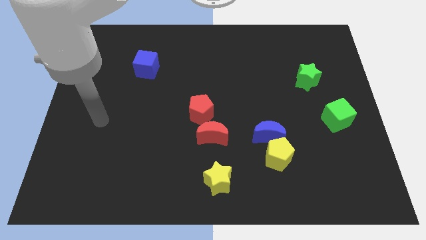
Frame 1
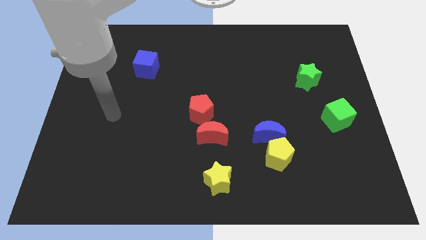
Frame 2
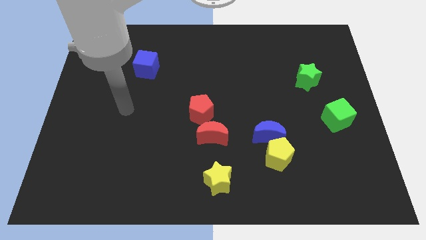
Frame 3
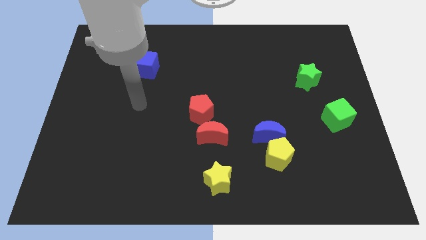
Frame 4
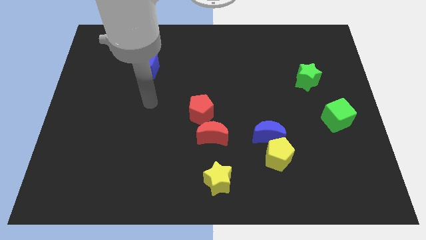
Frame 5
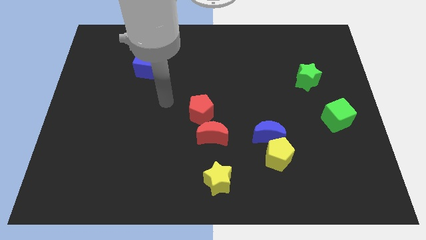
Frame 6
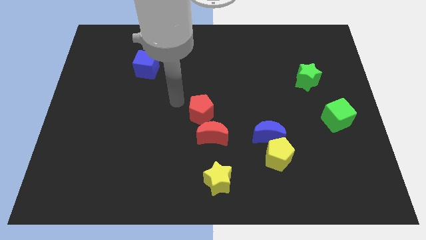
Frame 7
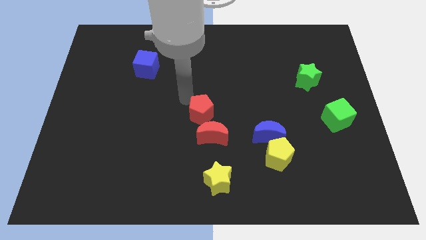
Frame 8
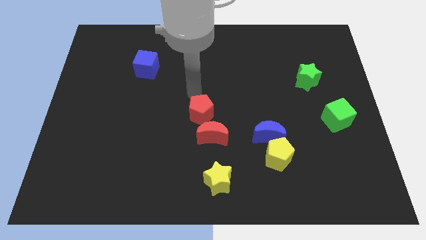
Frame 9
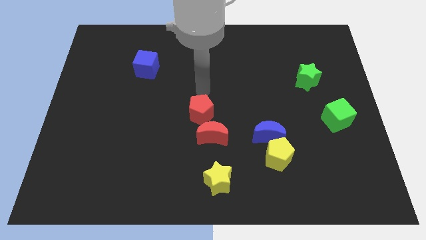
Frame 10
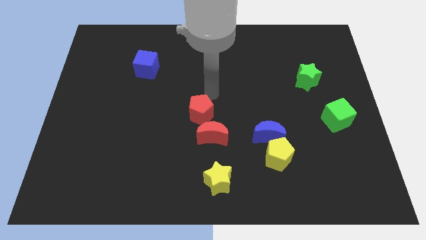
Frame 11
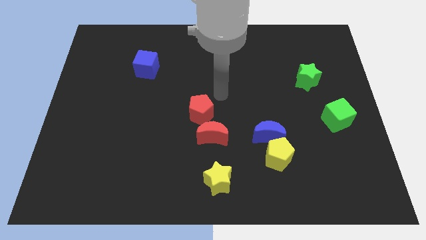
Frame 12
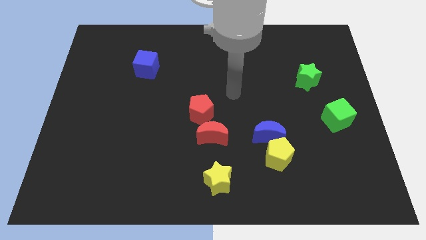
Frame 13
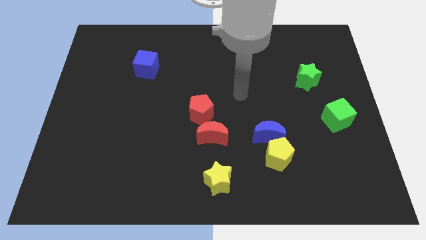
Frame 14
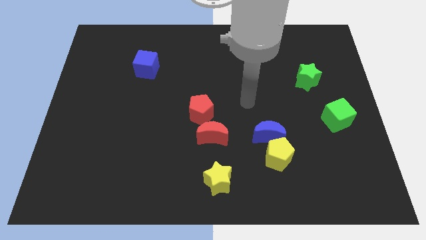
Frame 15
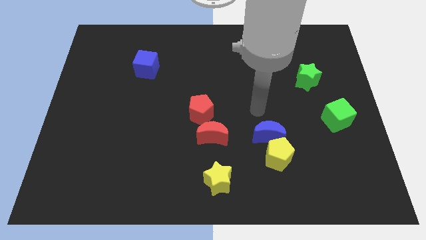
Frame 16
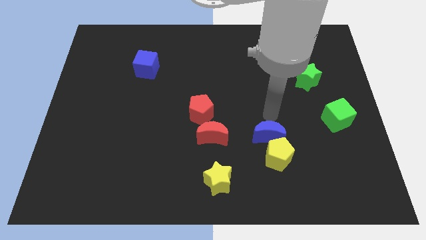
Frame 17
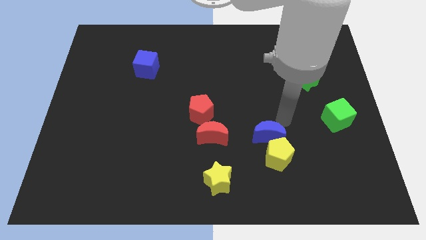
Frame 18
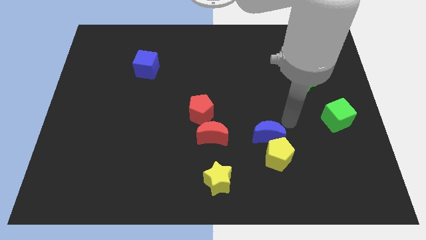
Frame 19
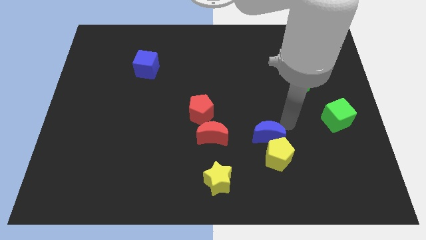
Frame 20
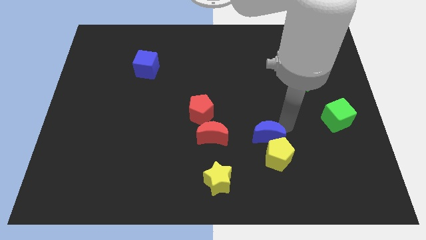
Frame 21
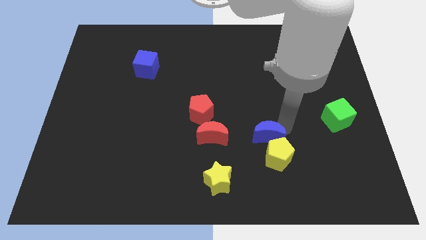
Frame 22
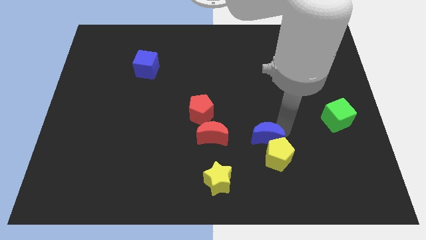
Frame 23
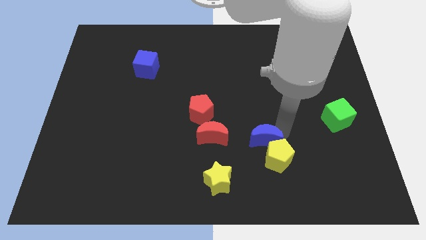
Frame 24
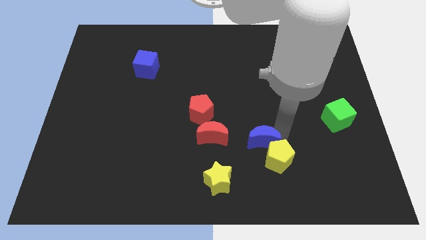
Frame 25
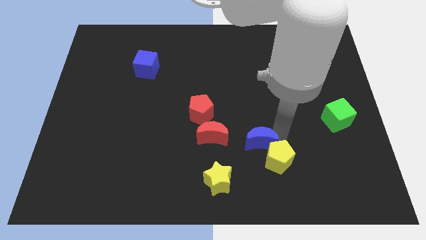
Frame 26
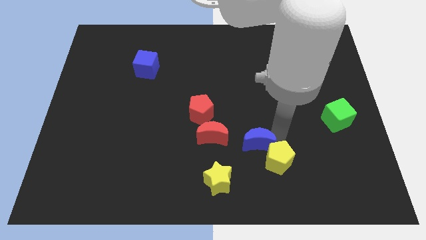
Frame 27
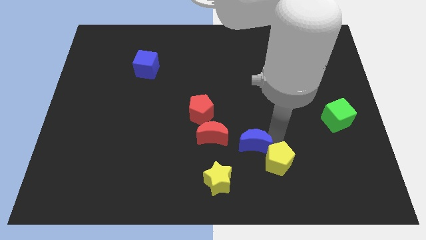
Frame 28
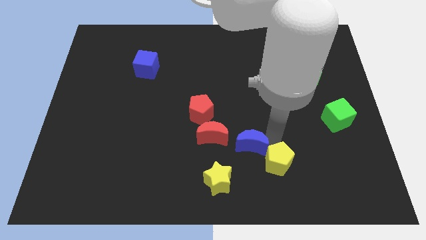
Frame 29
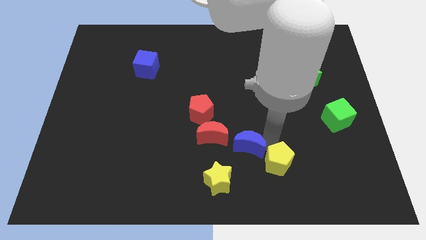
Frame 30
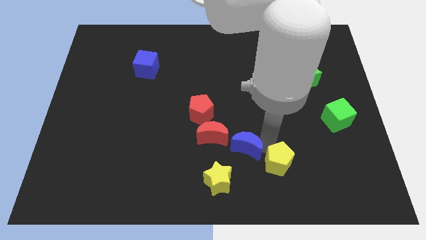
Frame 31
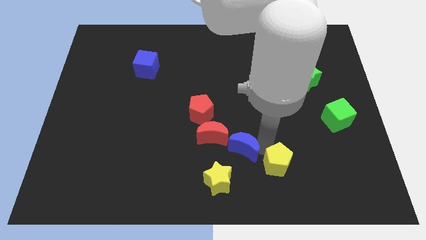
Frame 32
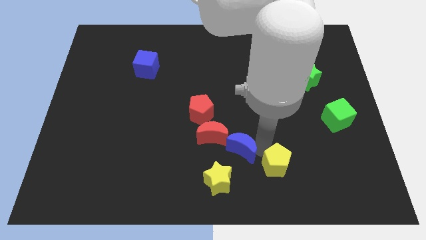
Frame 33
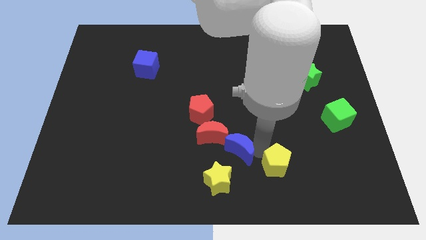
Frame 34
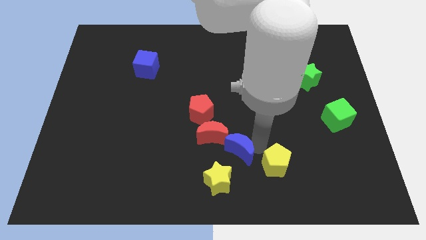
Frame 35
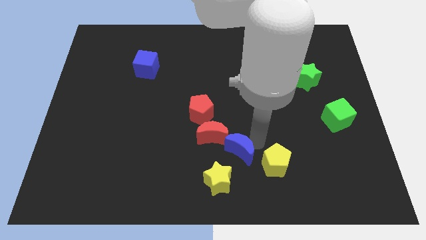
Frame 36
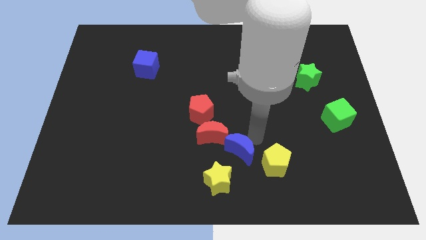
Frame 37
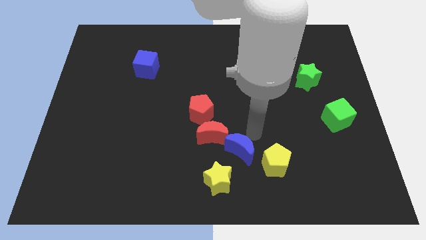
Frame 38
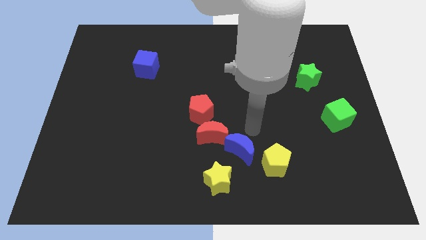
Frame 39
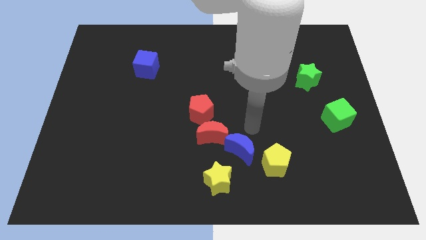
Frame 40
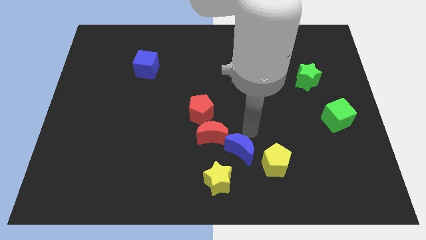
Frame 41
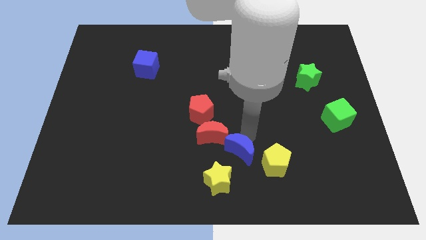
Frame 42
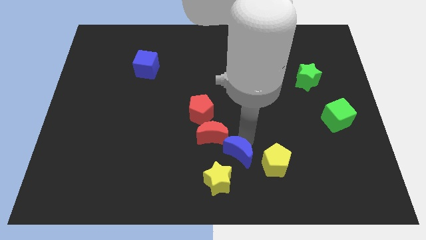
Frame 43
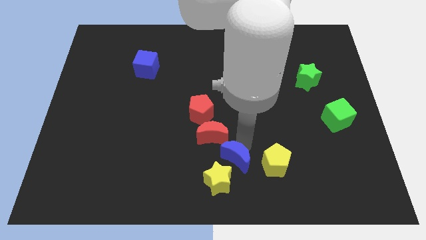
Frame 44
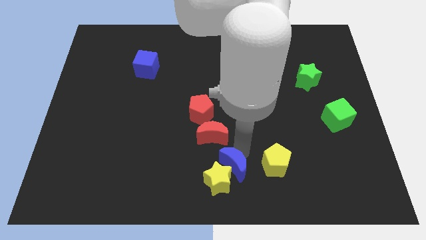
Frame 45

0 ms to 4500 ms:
push the blue moon towards the yellow star

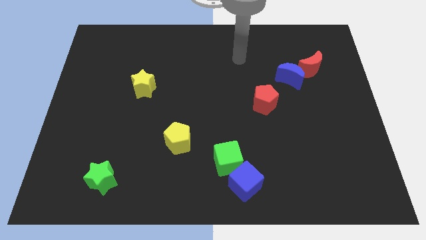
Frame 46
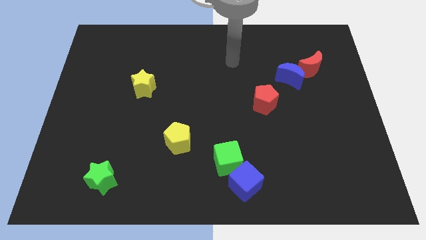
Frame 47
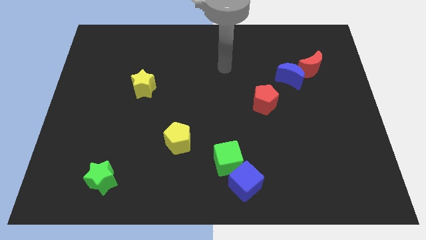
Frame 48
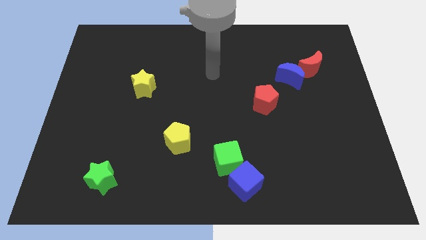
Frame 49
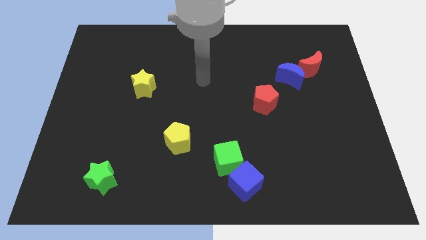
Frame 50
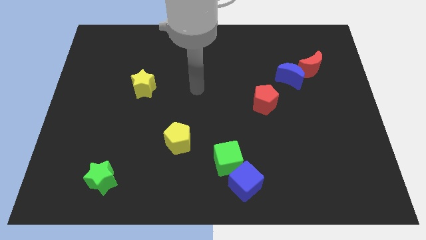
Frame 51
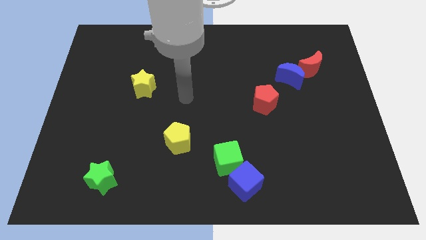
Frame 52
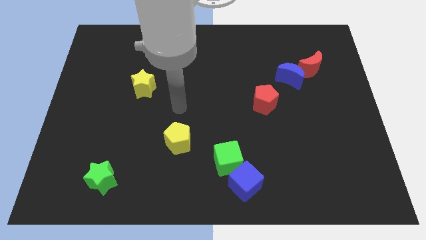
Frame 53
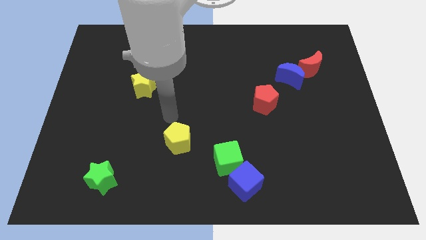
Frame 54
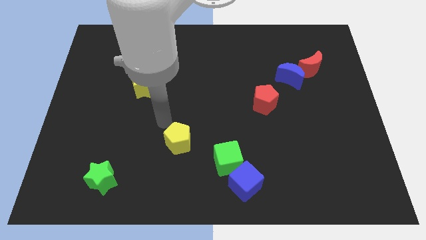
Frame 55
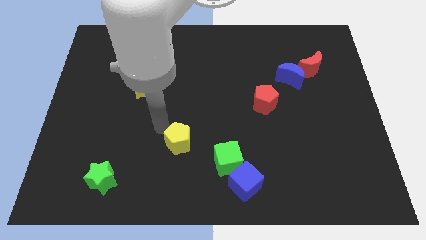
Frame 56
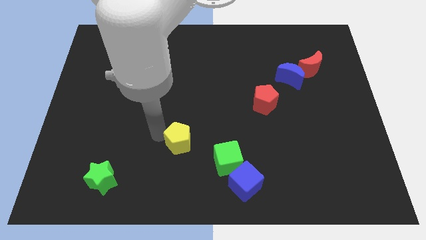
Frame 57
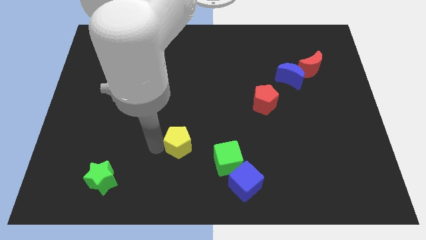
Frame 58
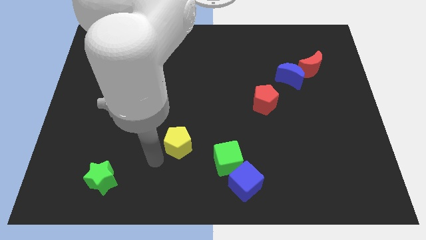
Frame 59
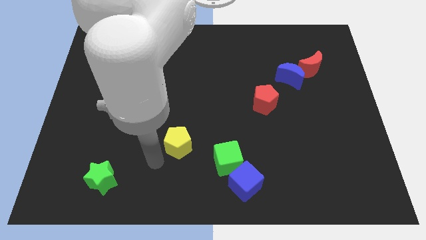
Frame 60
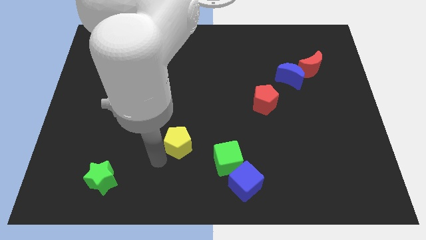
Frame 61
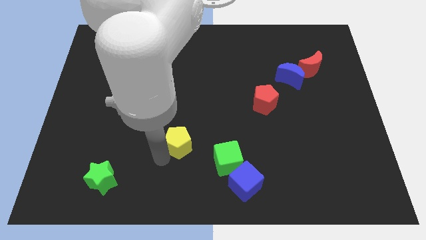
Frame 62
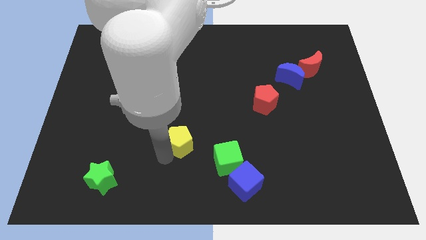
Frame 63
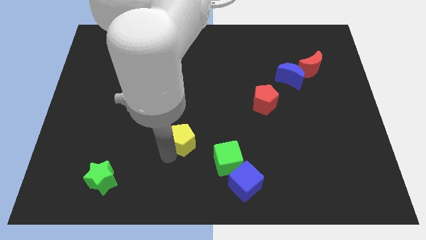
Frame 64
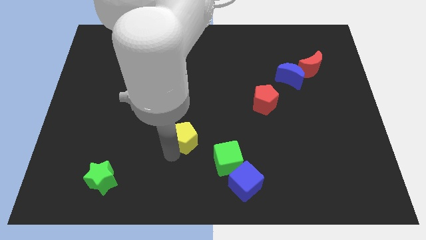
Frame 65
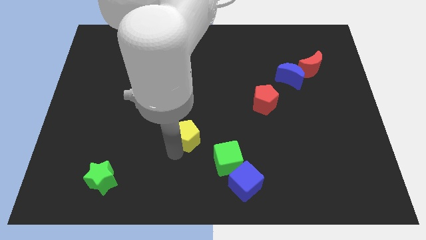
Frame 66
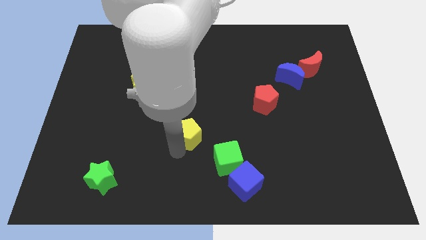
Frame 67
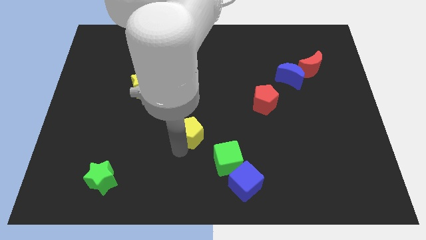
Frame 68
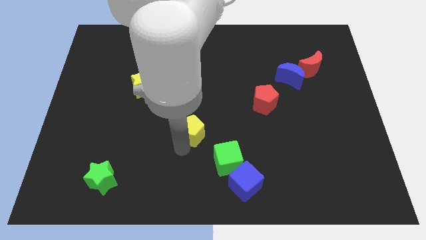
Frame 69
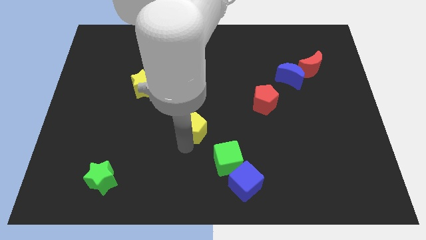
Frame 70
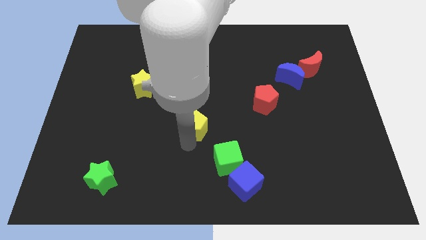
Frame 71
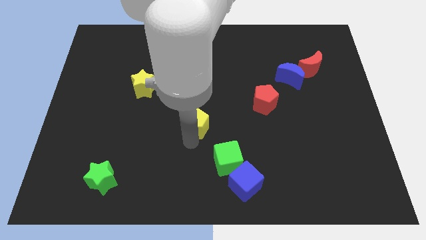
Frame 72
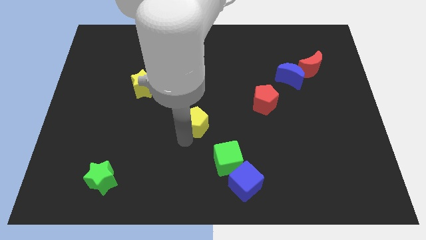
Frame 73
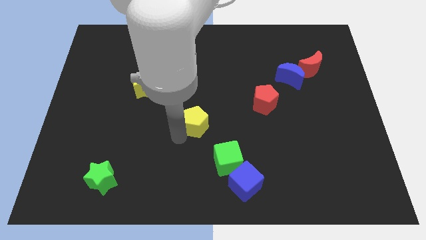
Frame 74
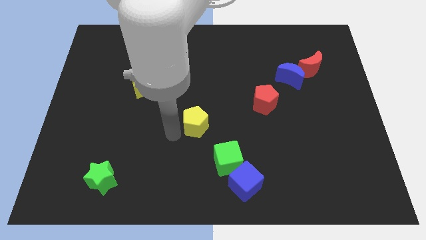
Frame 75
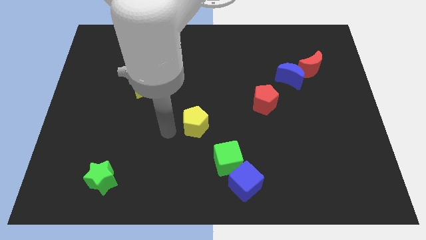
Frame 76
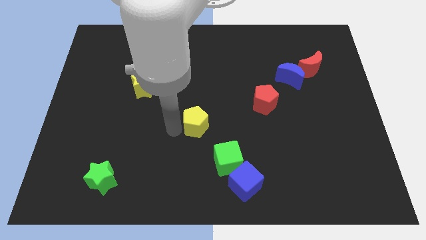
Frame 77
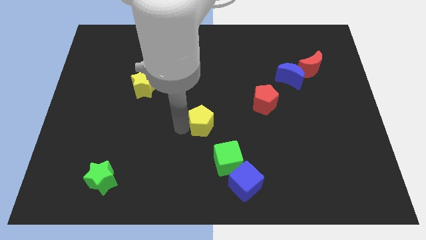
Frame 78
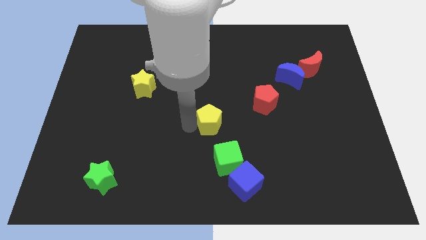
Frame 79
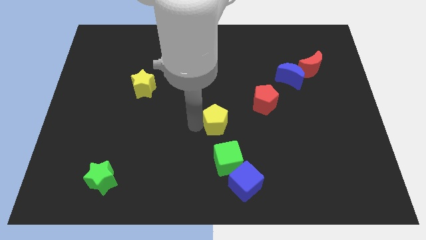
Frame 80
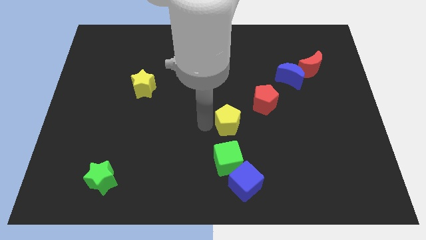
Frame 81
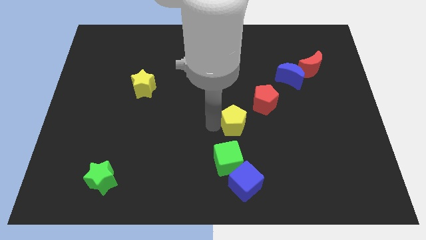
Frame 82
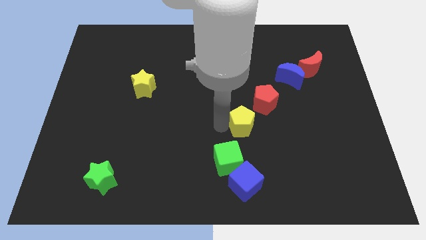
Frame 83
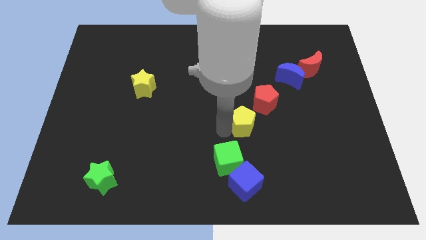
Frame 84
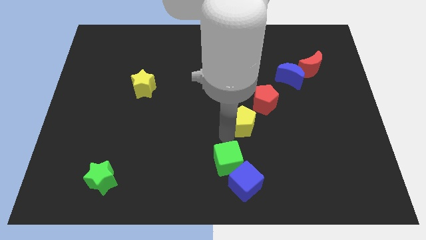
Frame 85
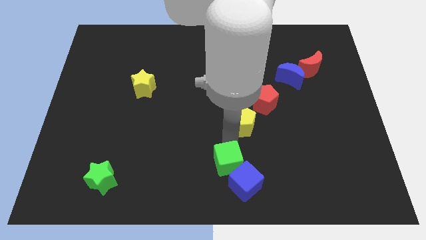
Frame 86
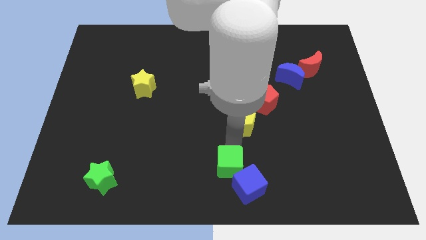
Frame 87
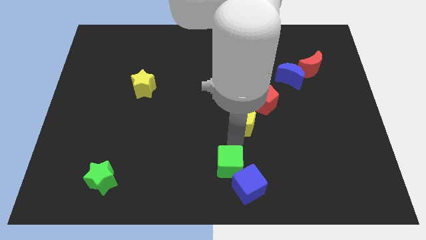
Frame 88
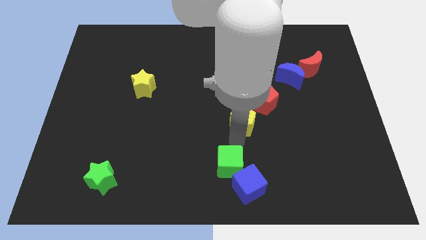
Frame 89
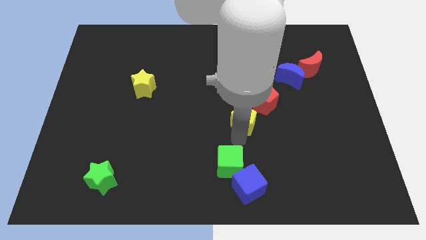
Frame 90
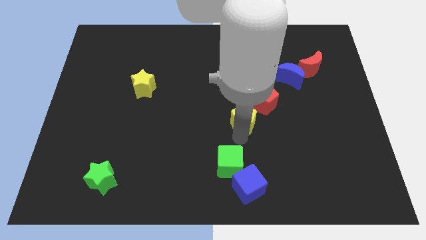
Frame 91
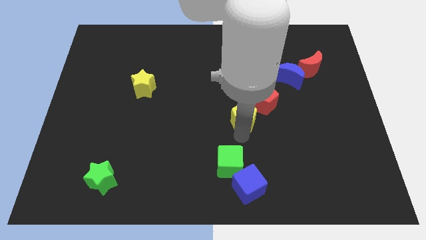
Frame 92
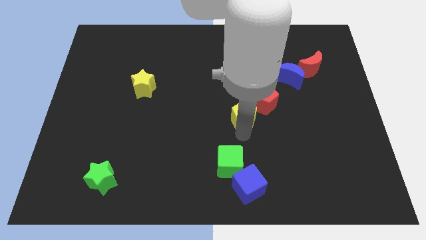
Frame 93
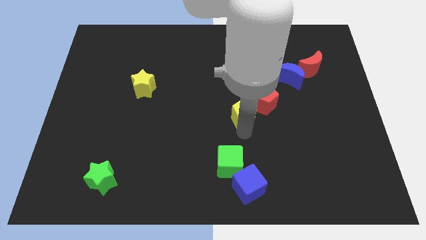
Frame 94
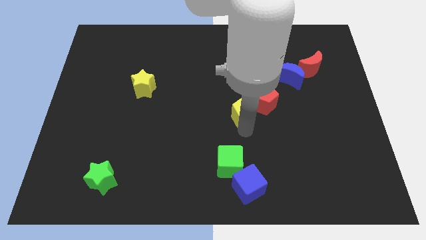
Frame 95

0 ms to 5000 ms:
slide the yellow pentagon next to the red pentagon
